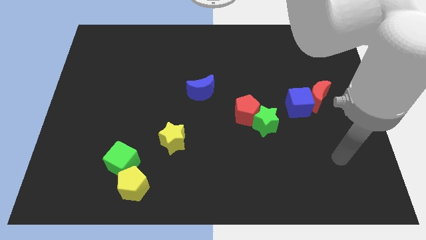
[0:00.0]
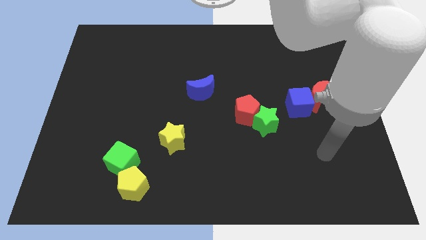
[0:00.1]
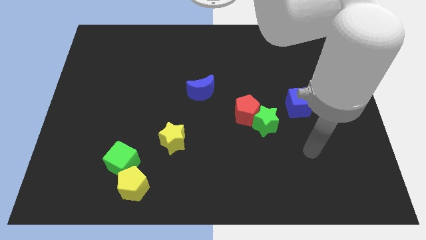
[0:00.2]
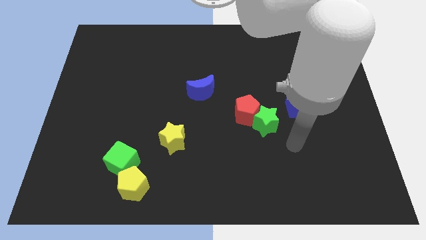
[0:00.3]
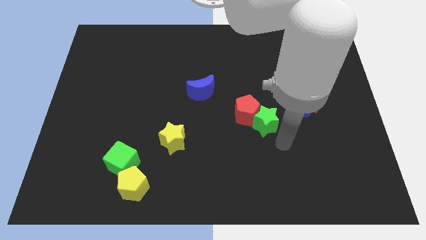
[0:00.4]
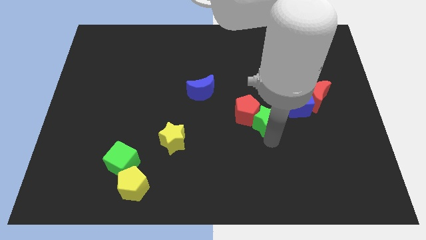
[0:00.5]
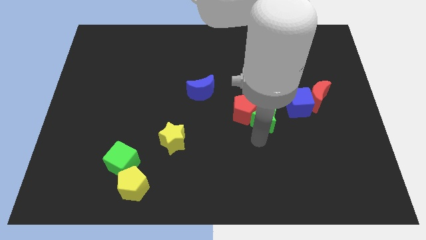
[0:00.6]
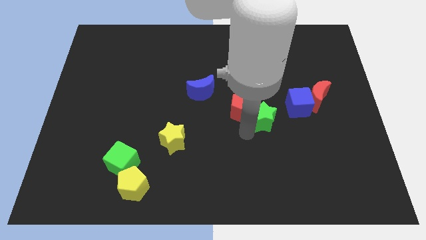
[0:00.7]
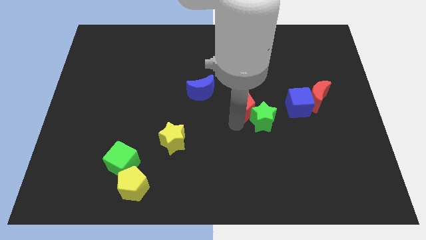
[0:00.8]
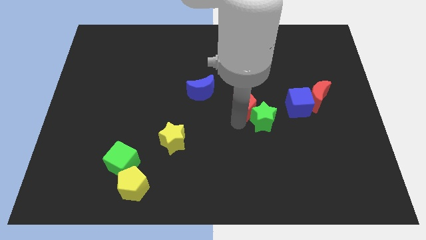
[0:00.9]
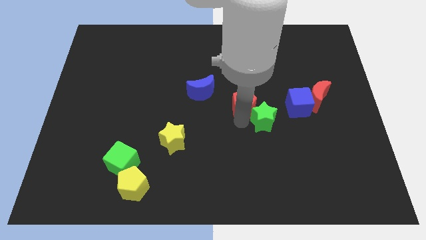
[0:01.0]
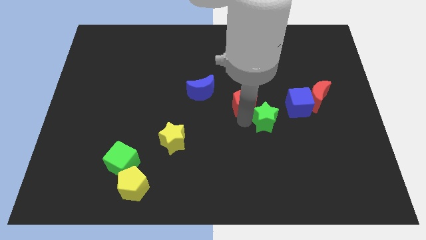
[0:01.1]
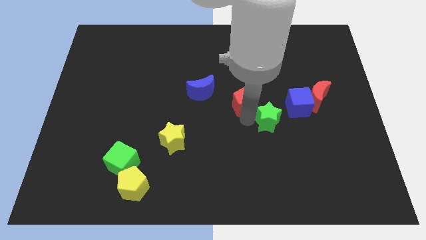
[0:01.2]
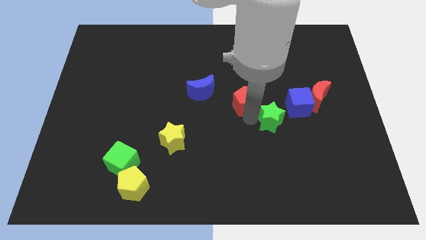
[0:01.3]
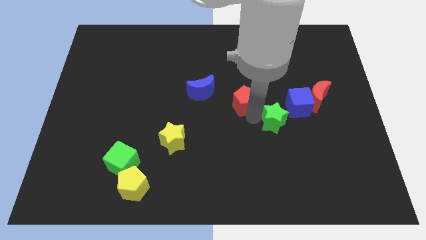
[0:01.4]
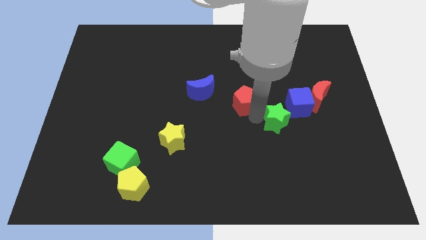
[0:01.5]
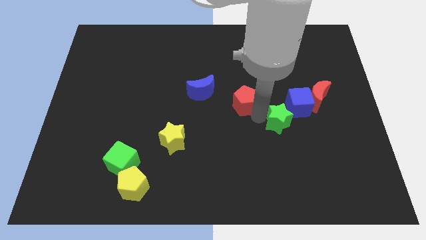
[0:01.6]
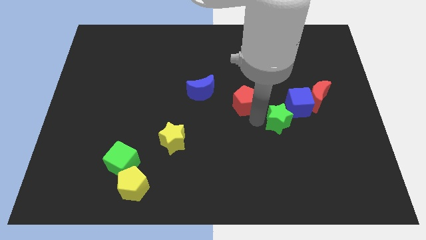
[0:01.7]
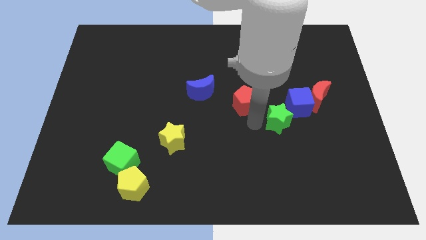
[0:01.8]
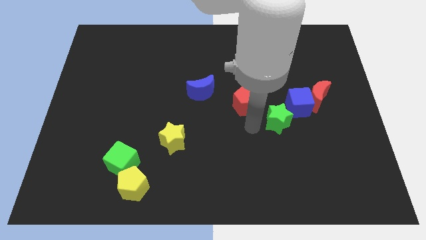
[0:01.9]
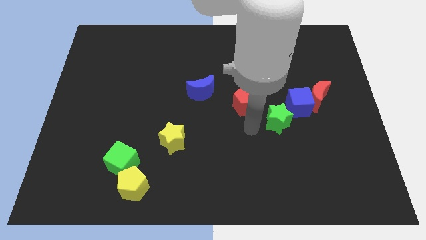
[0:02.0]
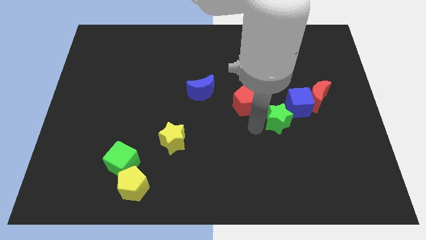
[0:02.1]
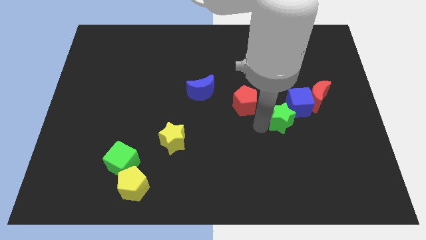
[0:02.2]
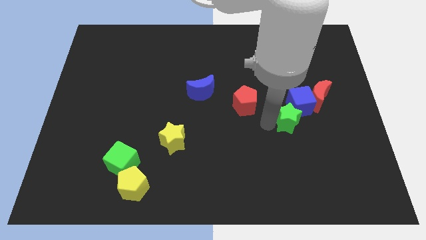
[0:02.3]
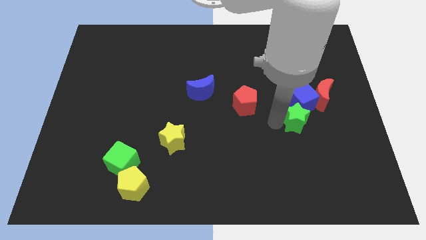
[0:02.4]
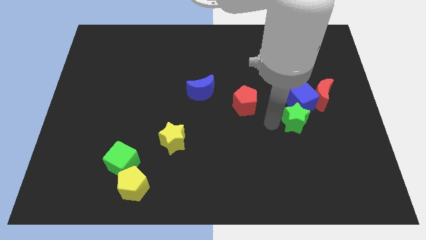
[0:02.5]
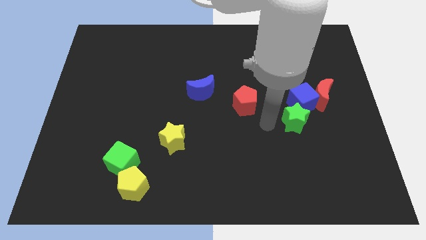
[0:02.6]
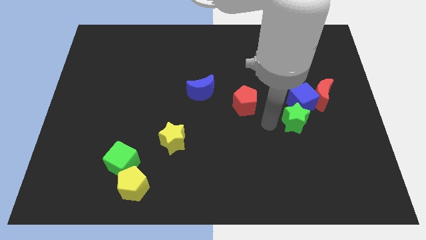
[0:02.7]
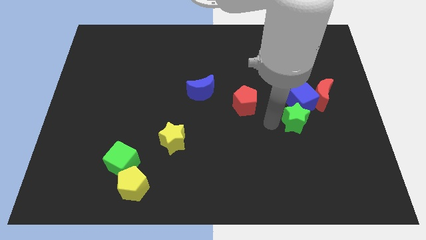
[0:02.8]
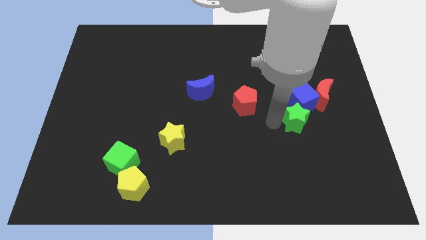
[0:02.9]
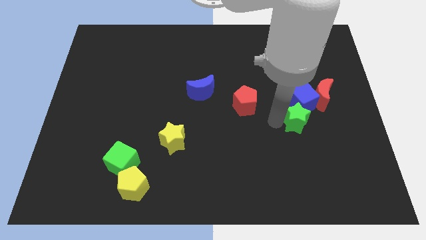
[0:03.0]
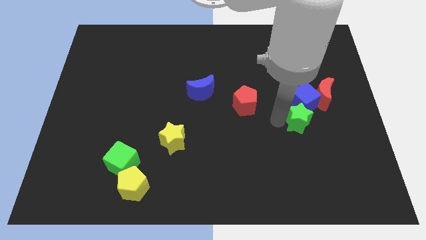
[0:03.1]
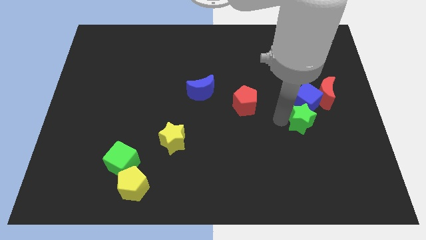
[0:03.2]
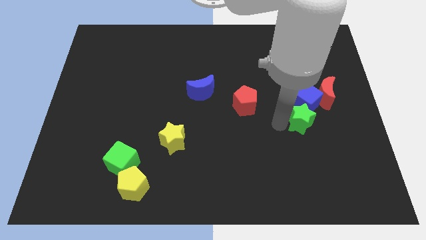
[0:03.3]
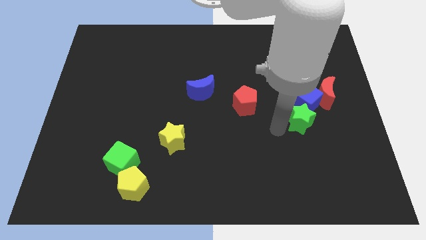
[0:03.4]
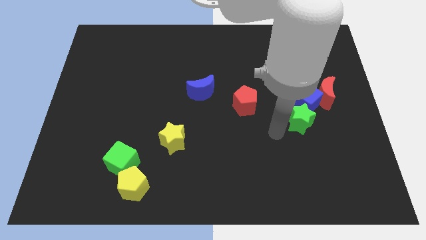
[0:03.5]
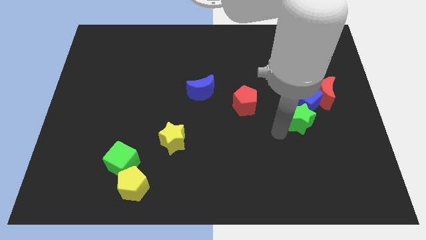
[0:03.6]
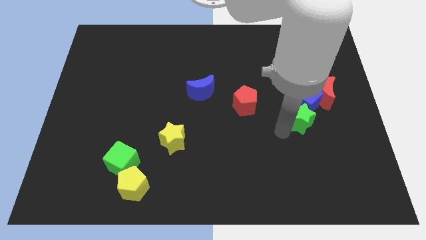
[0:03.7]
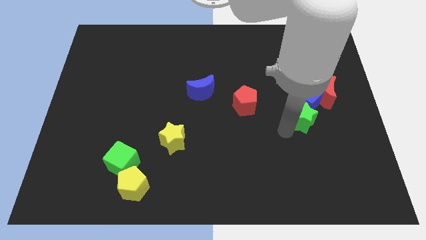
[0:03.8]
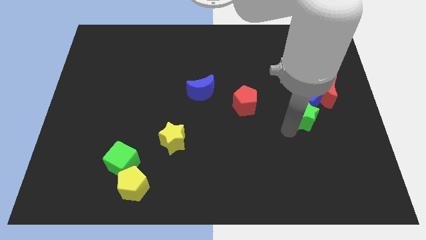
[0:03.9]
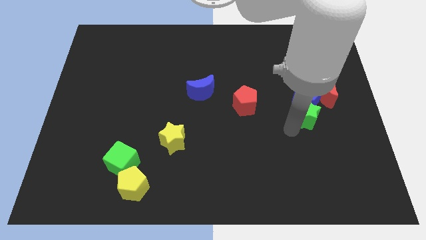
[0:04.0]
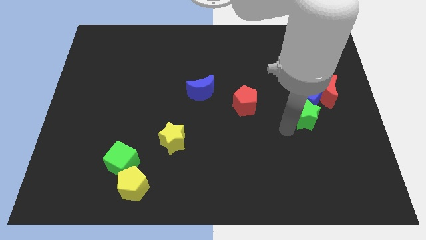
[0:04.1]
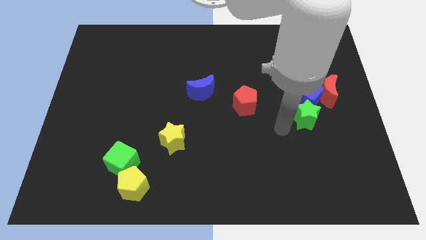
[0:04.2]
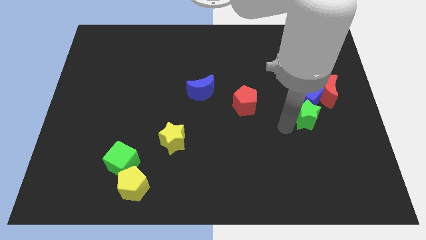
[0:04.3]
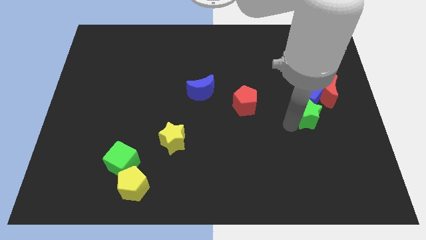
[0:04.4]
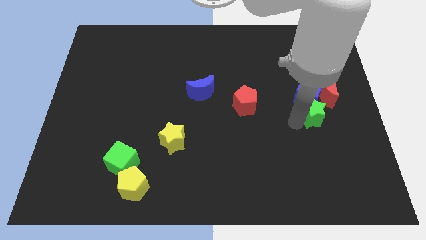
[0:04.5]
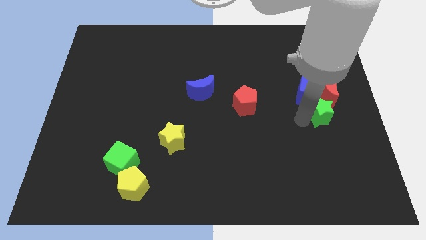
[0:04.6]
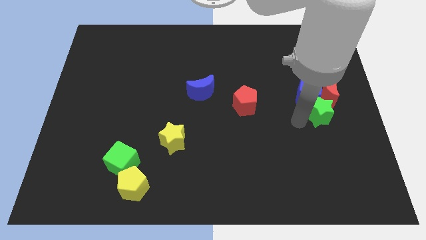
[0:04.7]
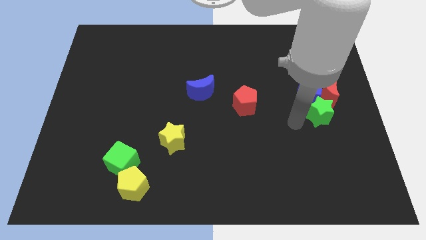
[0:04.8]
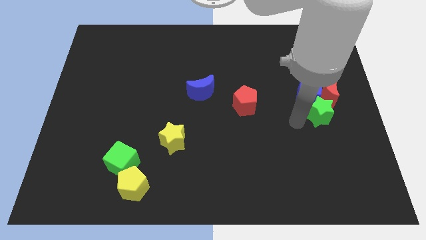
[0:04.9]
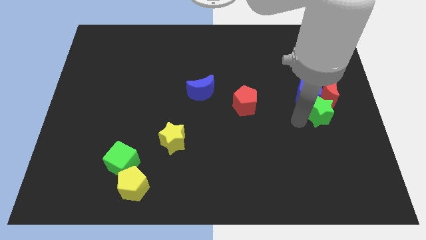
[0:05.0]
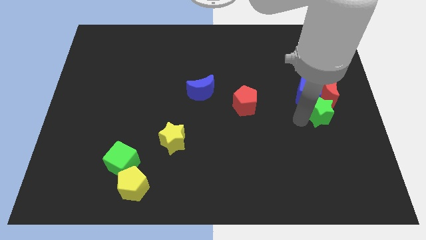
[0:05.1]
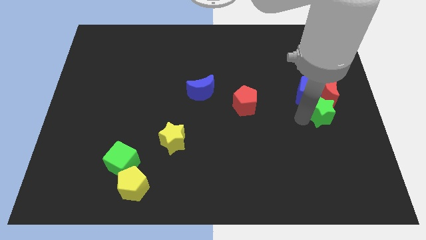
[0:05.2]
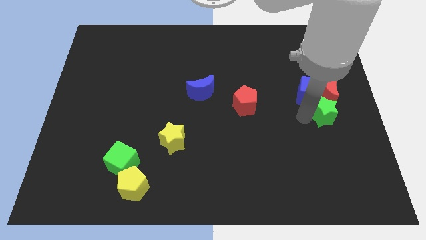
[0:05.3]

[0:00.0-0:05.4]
move the green star to the center right

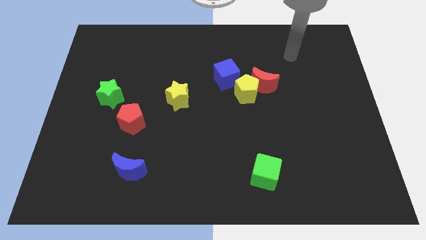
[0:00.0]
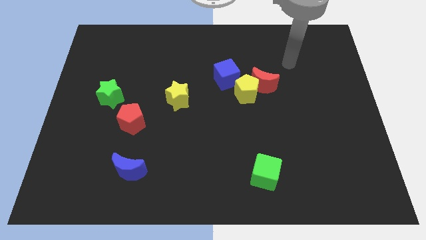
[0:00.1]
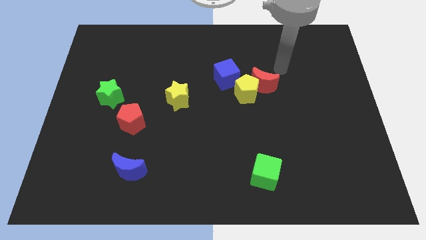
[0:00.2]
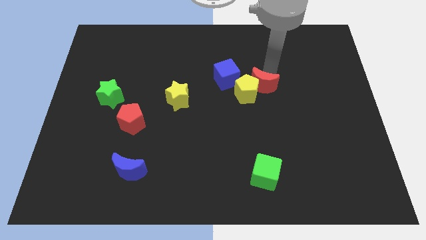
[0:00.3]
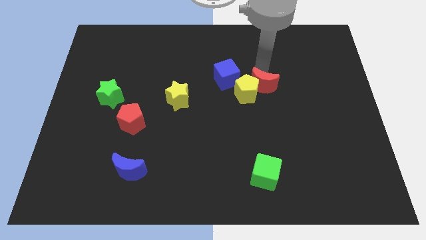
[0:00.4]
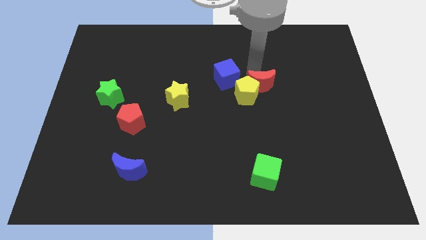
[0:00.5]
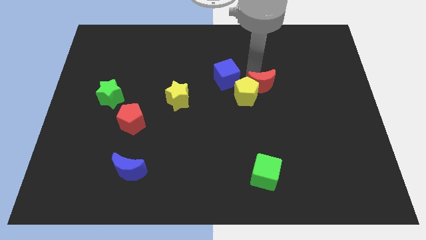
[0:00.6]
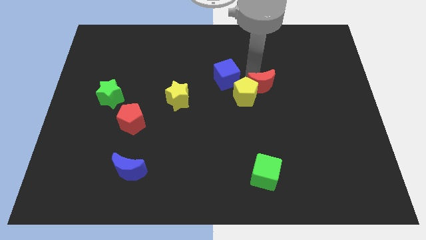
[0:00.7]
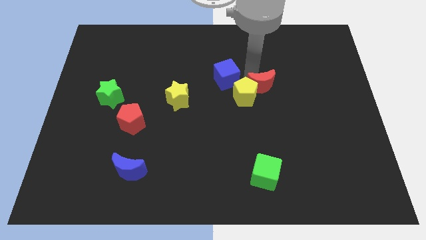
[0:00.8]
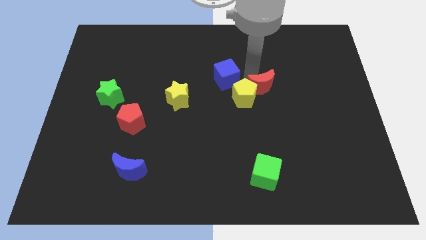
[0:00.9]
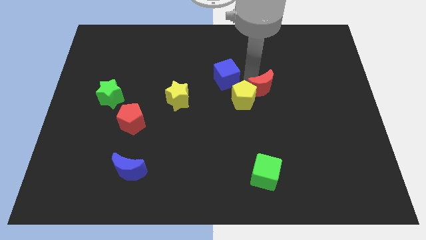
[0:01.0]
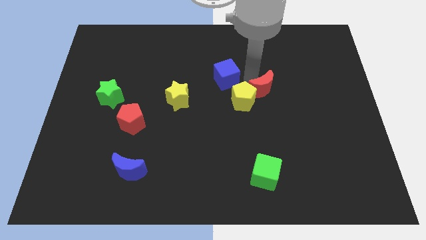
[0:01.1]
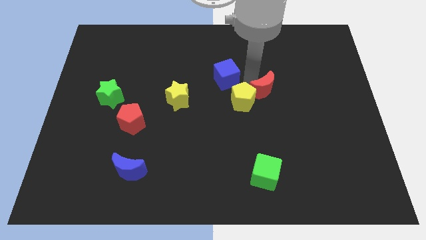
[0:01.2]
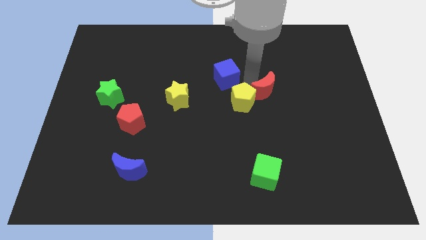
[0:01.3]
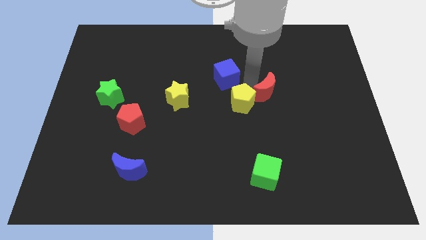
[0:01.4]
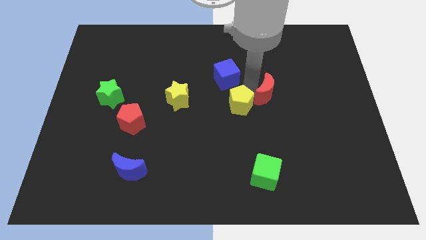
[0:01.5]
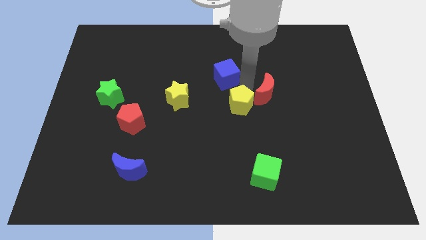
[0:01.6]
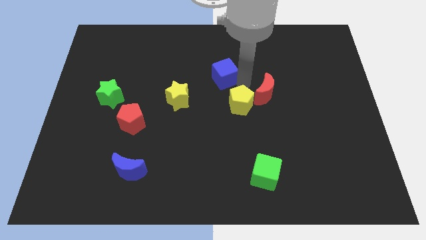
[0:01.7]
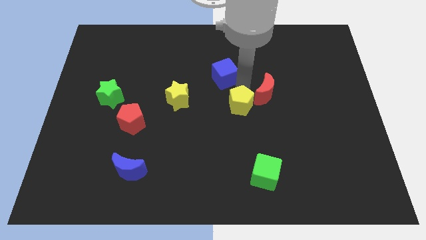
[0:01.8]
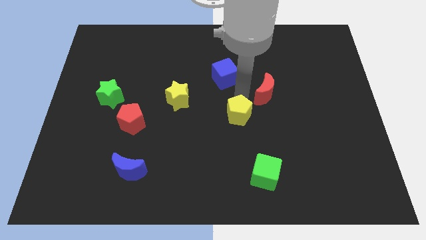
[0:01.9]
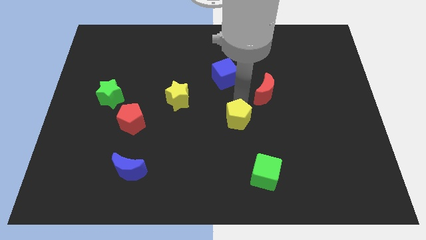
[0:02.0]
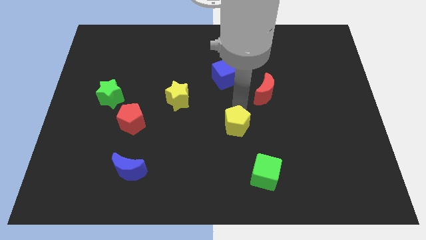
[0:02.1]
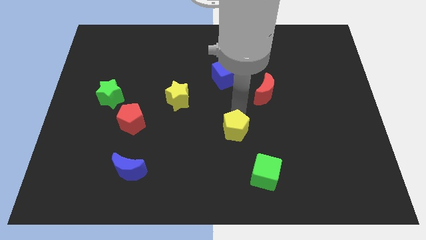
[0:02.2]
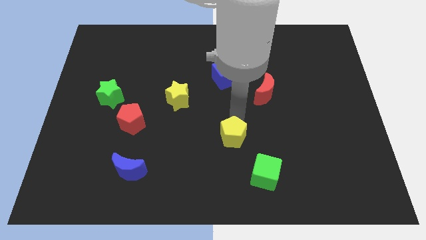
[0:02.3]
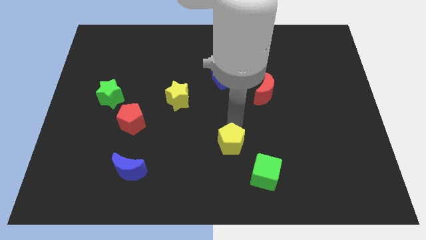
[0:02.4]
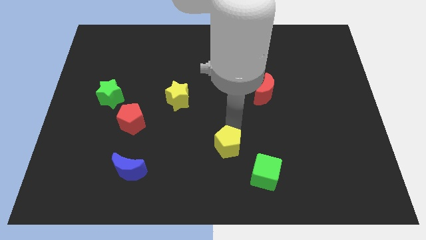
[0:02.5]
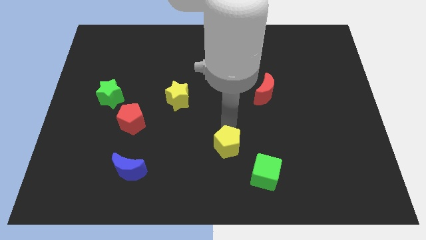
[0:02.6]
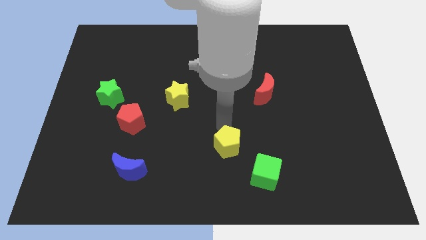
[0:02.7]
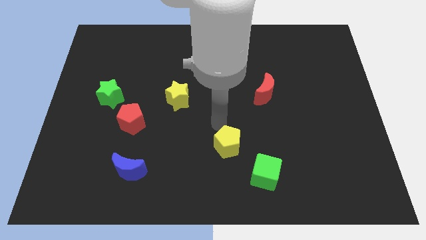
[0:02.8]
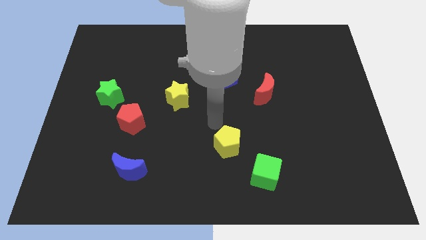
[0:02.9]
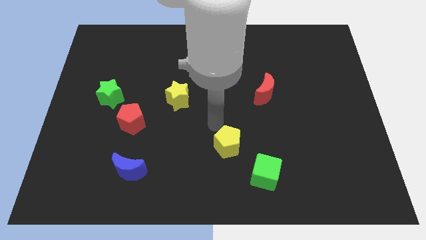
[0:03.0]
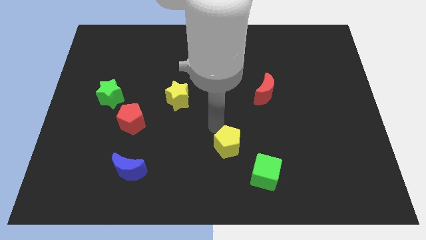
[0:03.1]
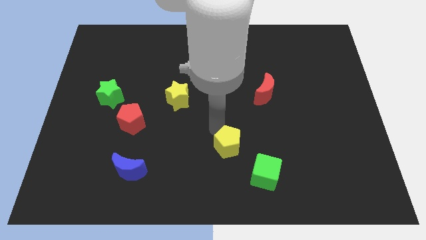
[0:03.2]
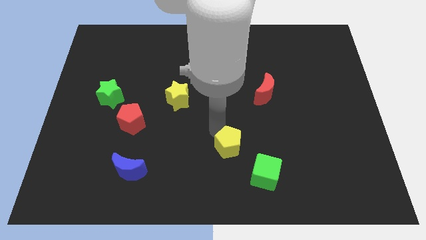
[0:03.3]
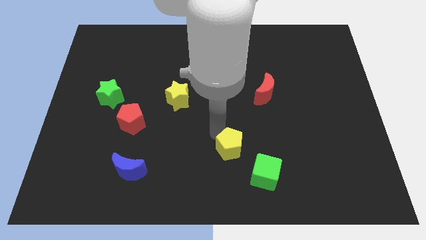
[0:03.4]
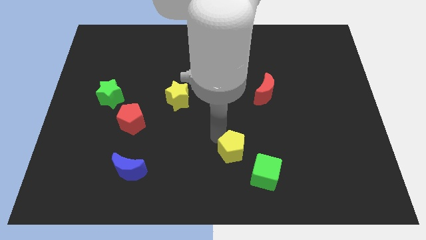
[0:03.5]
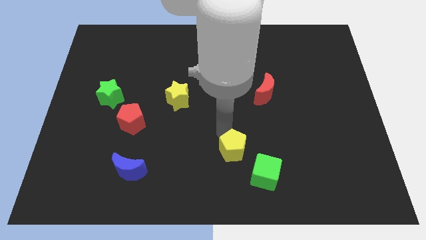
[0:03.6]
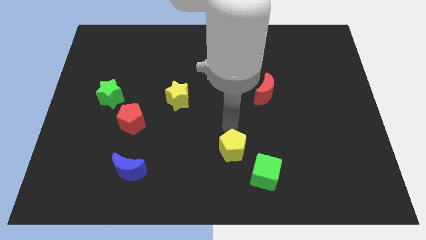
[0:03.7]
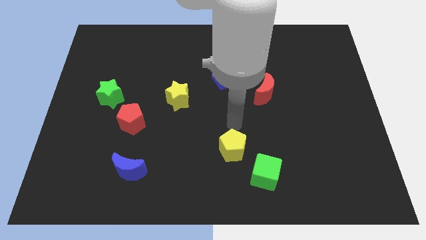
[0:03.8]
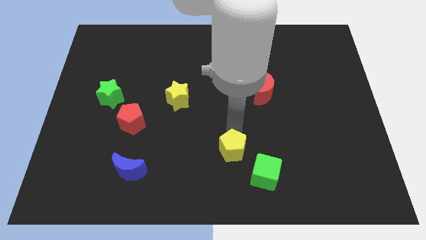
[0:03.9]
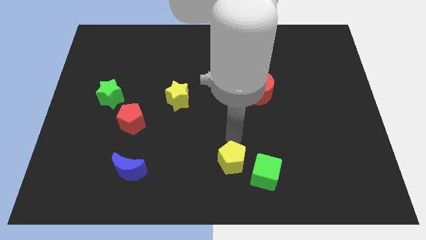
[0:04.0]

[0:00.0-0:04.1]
move the yellow pentagon to the bottom
